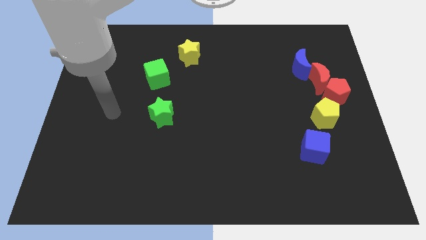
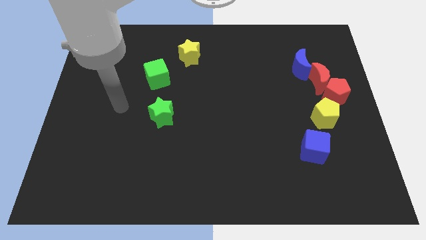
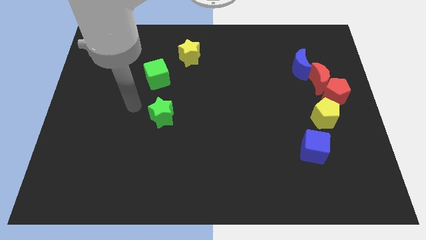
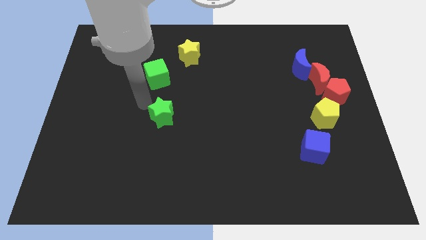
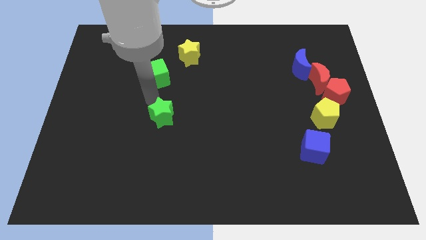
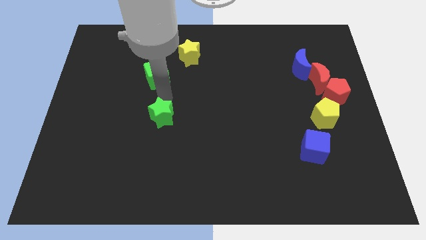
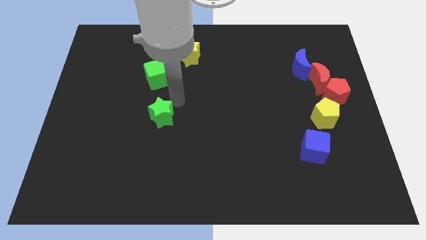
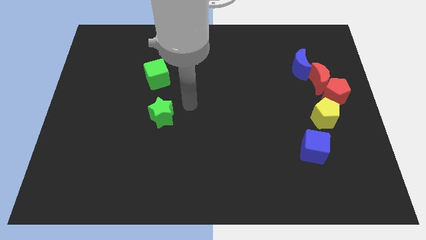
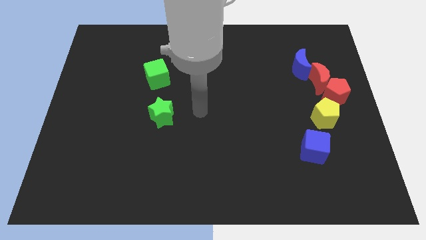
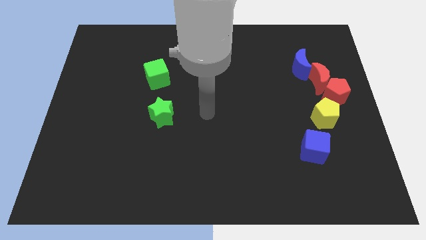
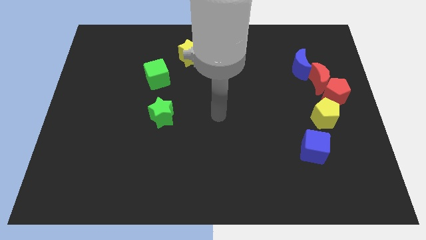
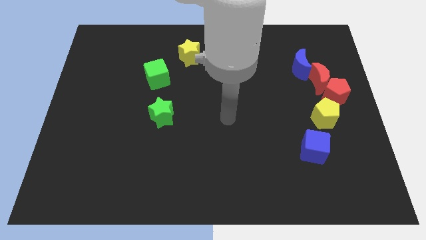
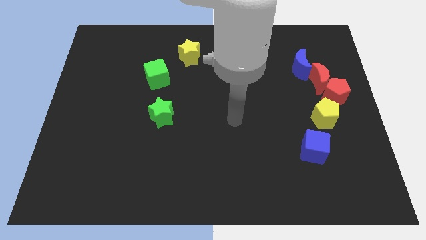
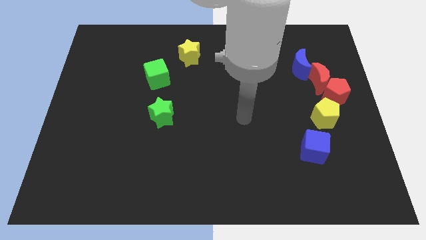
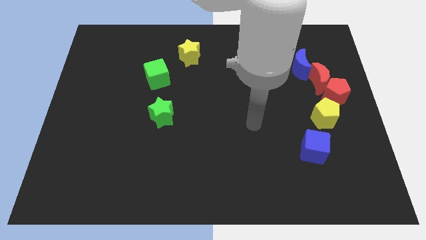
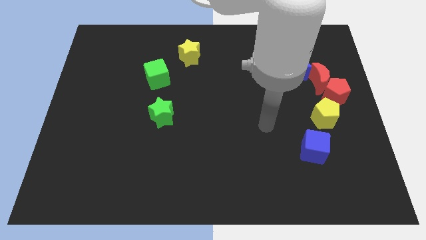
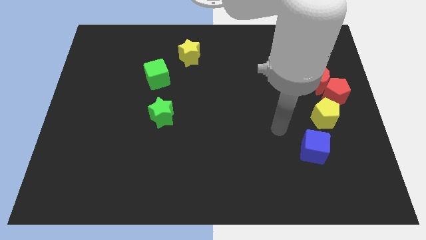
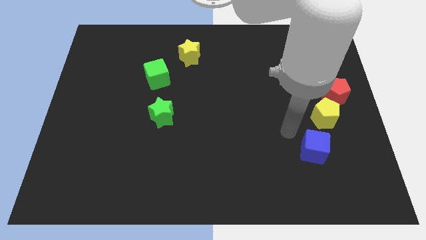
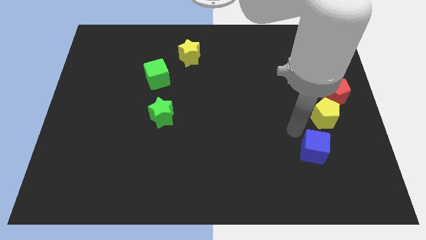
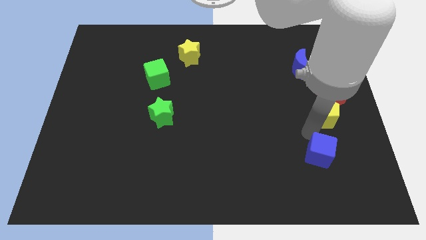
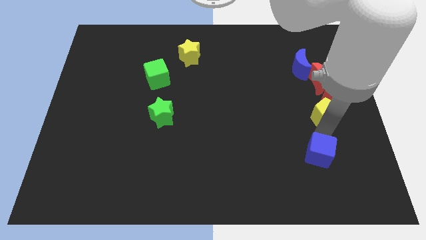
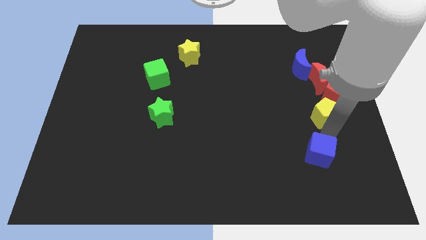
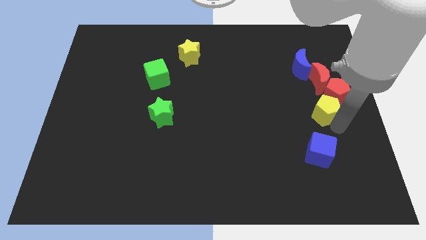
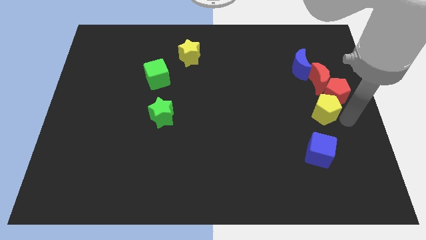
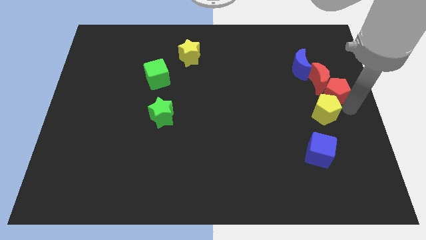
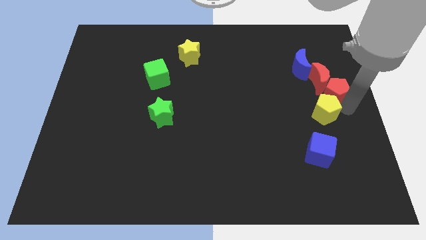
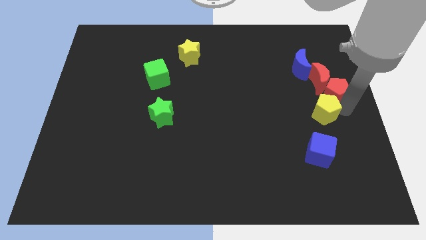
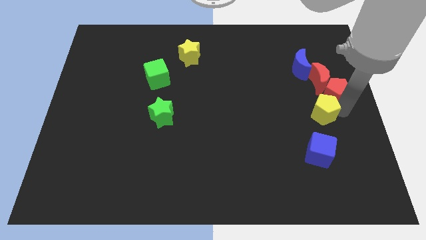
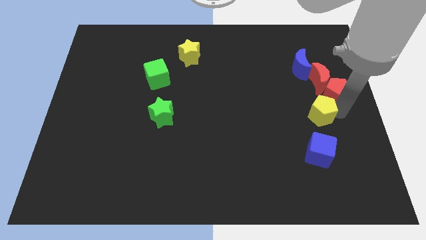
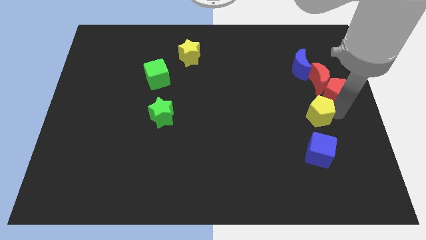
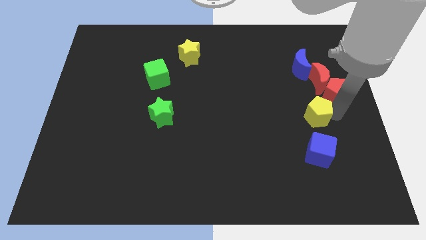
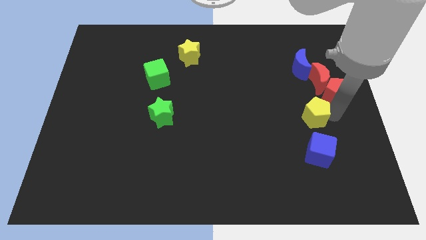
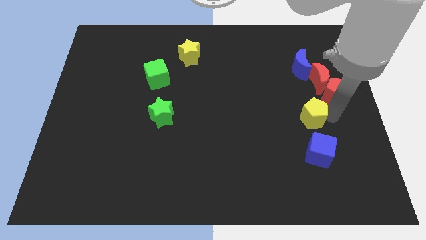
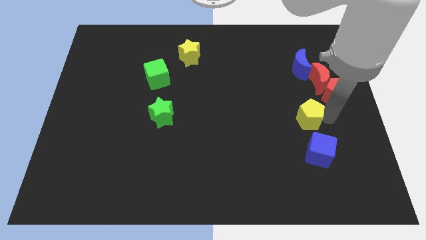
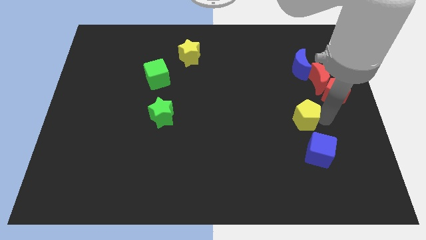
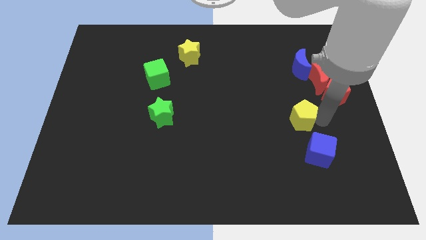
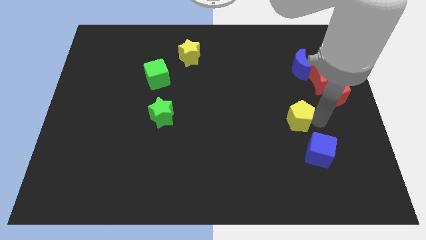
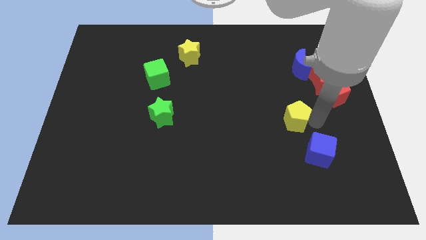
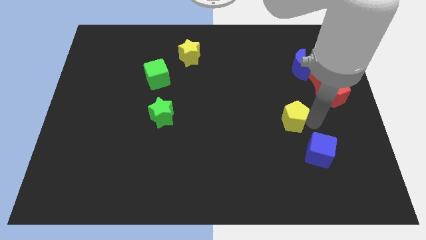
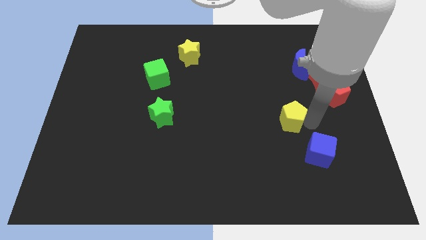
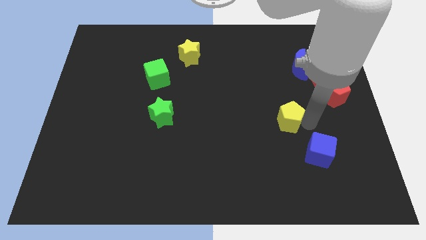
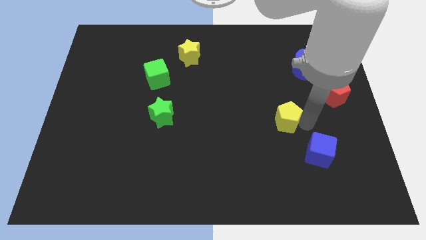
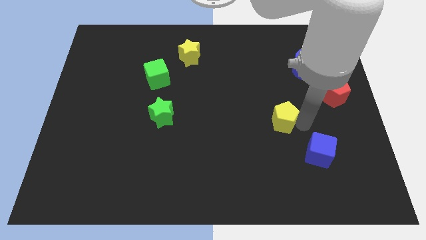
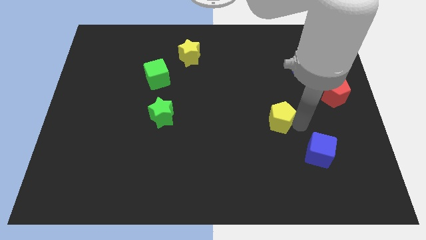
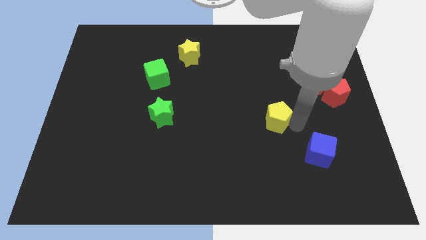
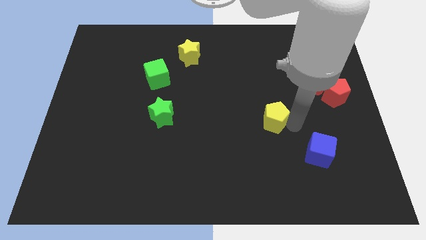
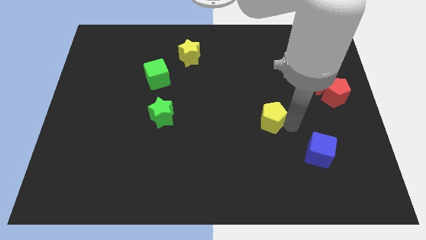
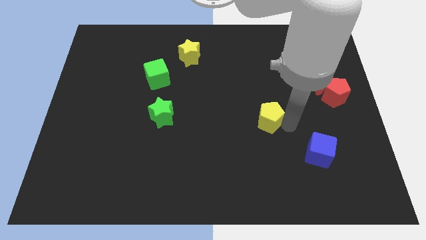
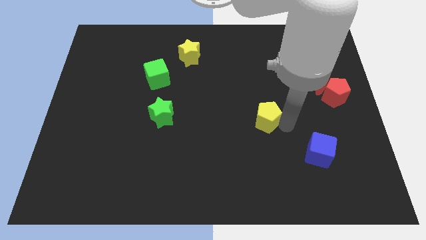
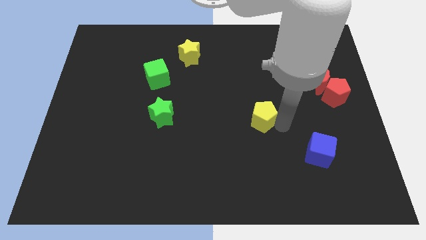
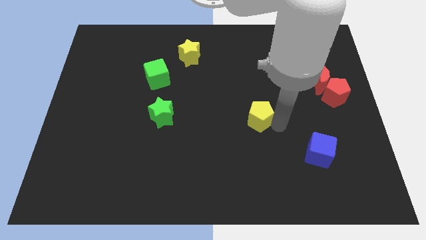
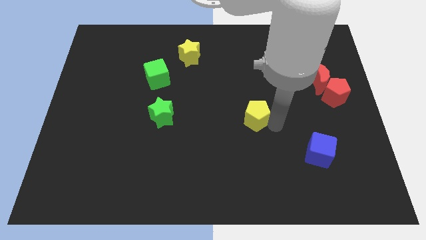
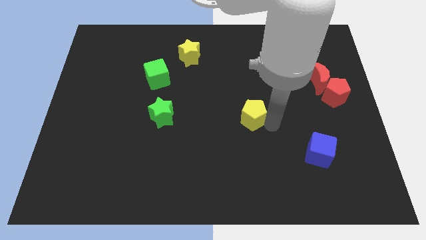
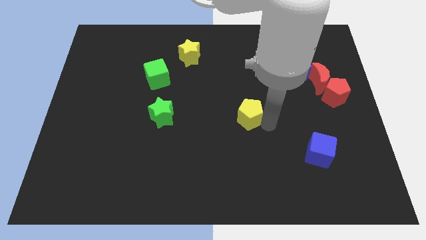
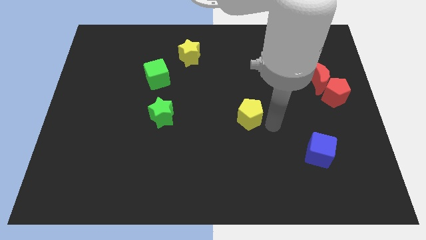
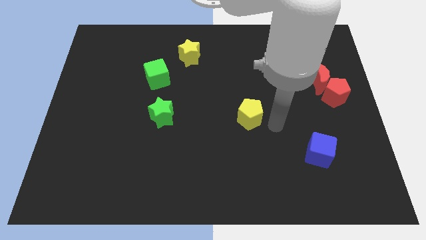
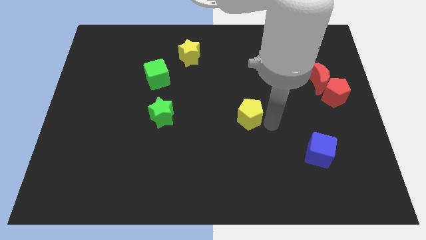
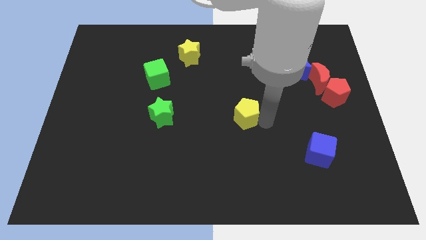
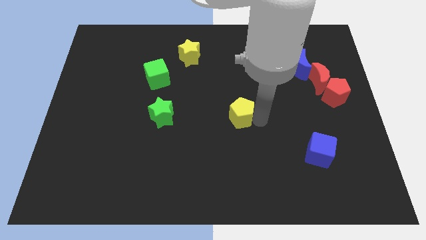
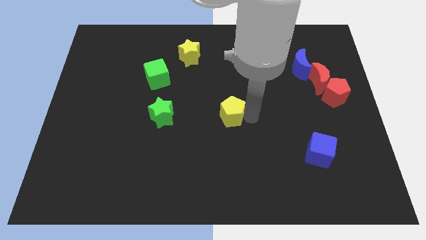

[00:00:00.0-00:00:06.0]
push the yellow pentagon to the left

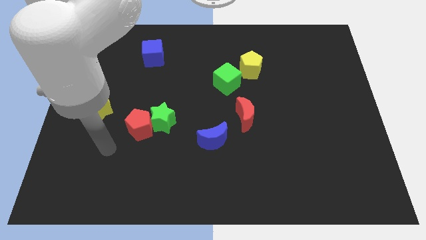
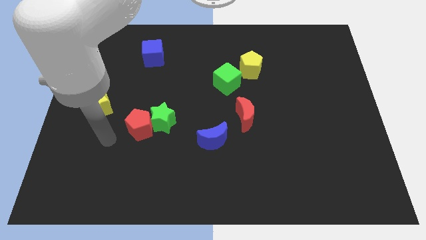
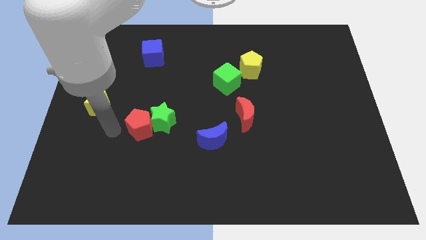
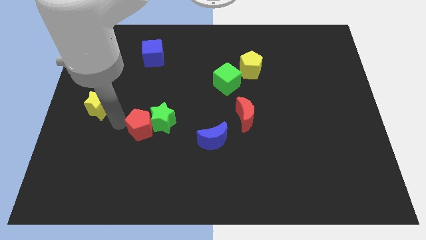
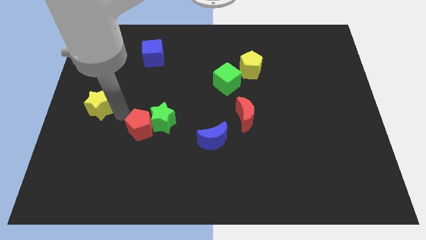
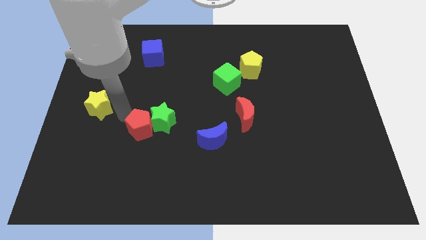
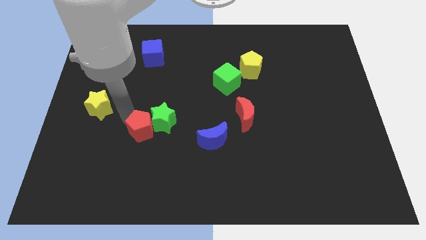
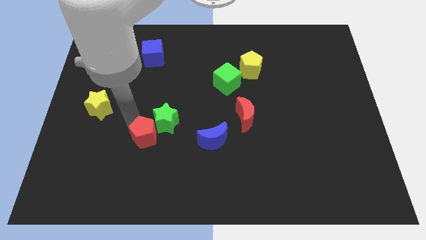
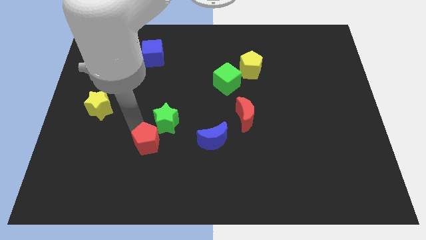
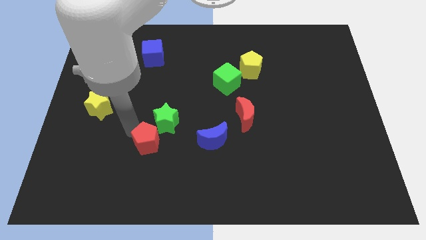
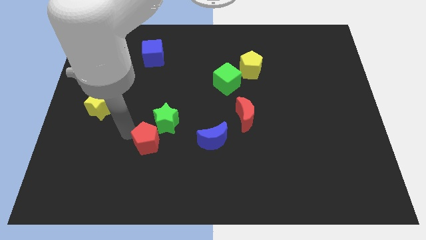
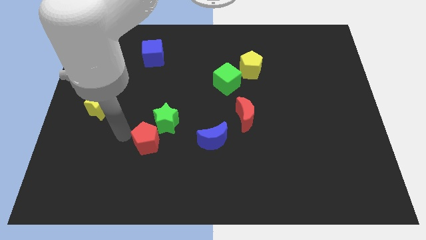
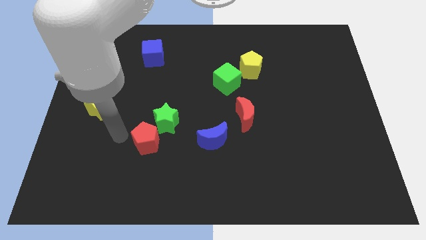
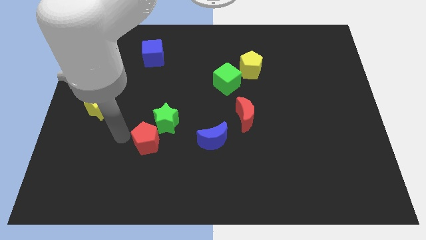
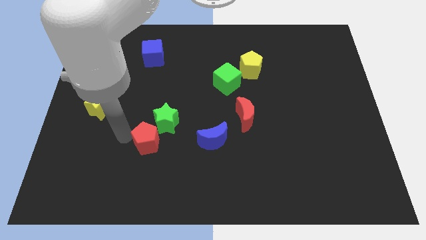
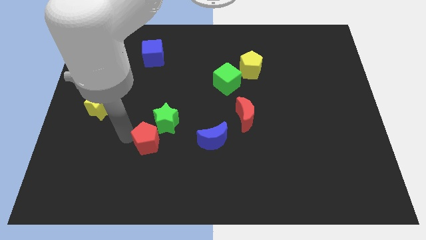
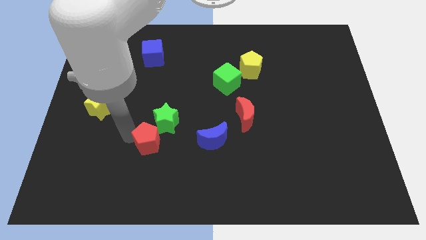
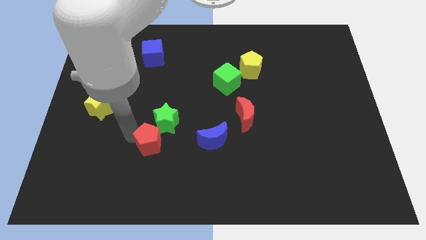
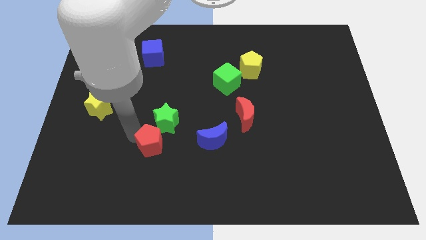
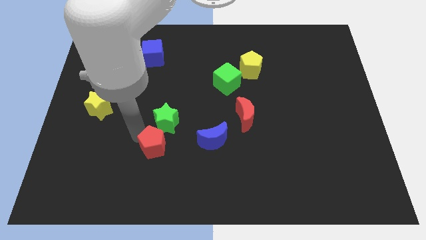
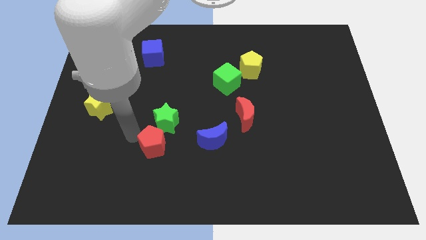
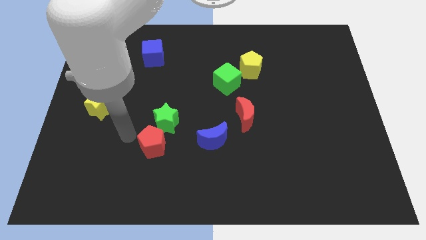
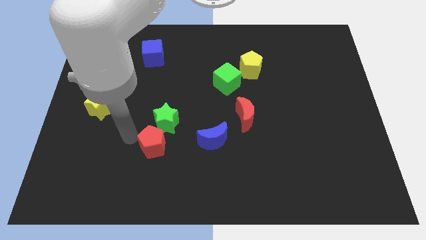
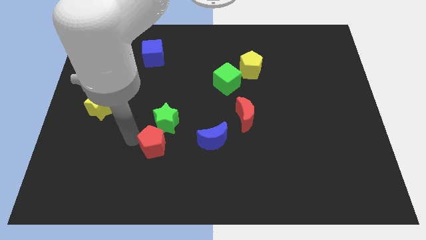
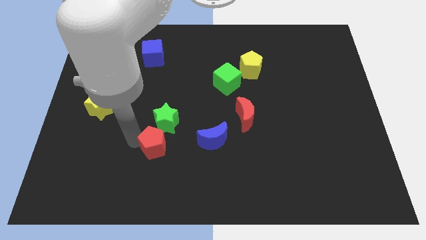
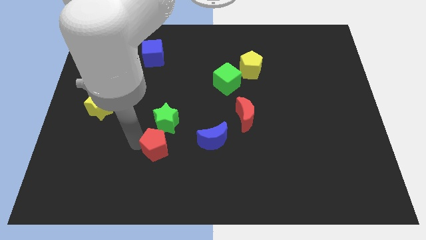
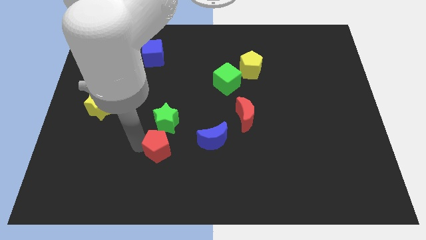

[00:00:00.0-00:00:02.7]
move the red pentagon downwards and then to the right somewhat
